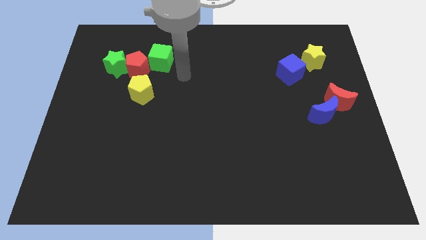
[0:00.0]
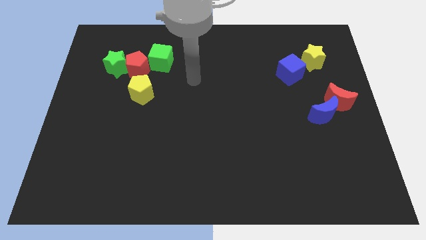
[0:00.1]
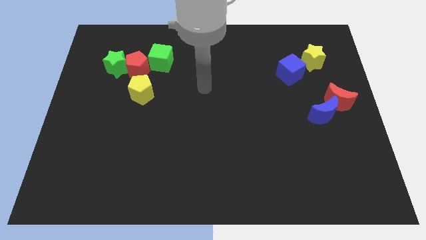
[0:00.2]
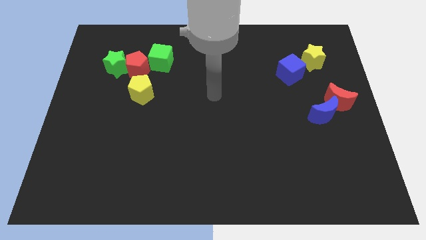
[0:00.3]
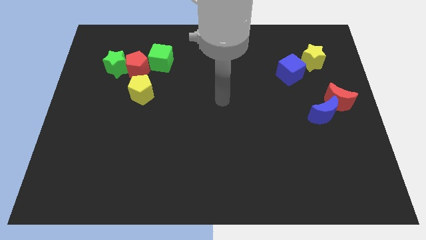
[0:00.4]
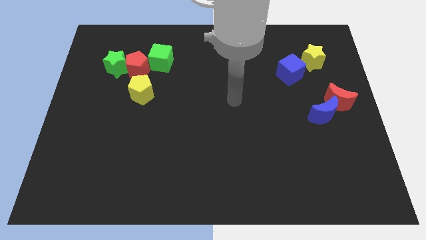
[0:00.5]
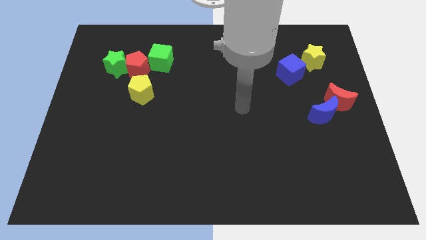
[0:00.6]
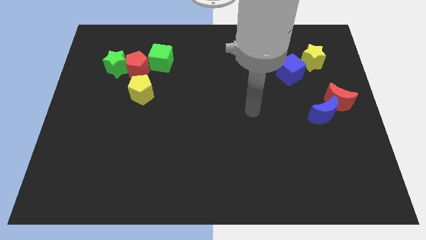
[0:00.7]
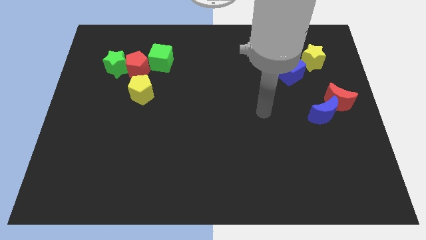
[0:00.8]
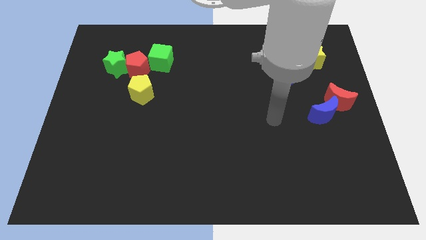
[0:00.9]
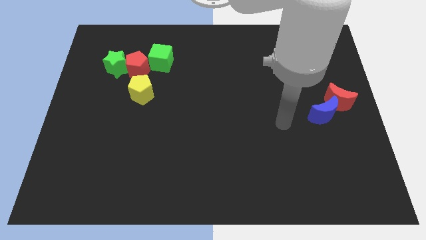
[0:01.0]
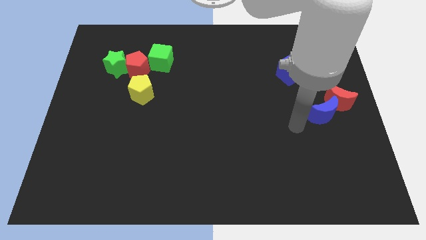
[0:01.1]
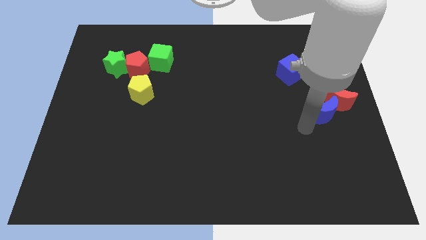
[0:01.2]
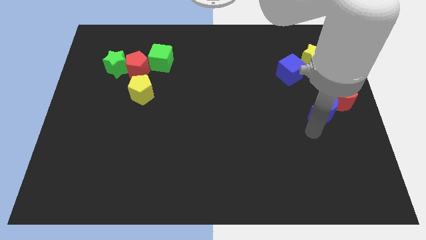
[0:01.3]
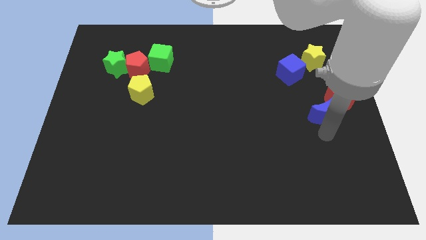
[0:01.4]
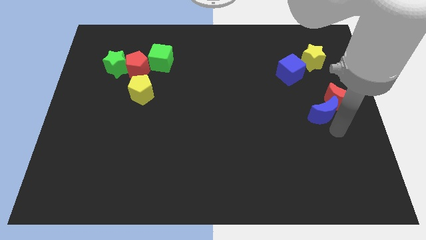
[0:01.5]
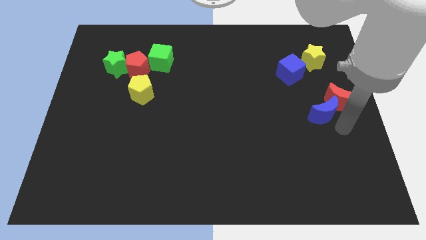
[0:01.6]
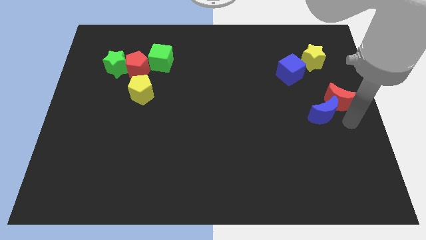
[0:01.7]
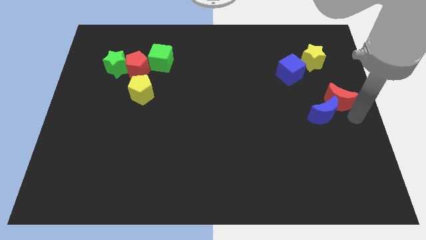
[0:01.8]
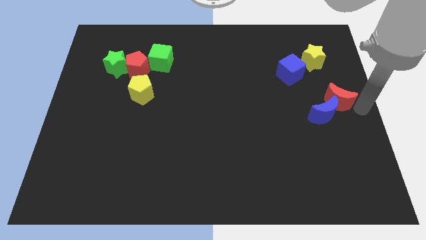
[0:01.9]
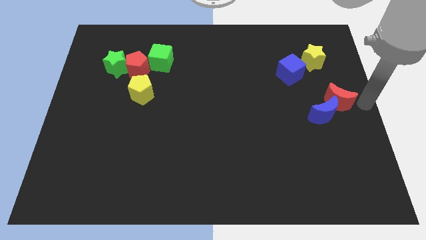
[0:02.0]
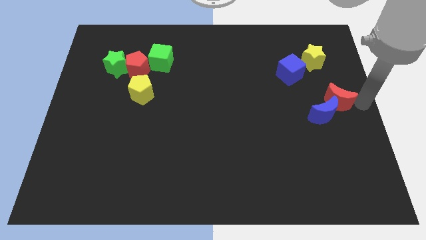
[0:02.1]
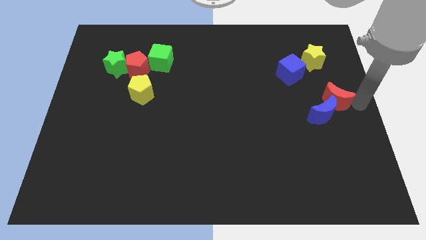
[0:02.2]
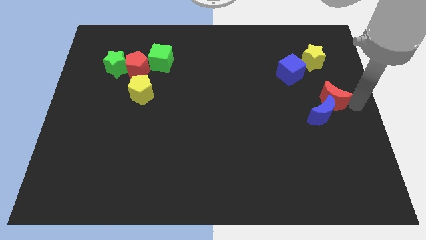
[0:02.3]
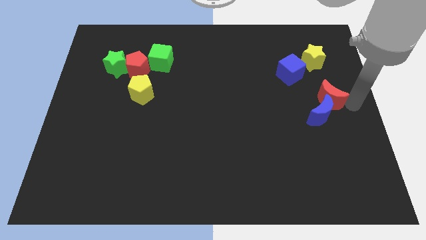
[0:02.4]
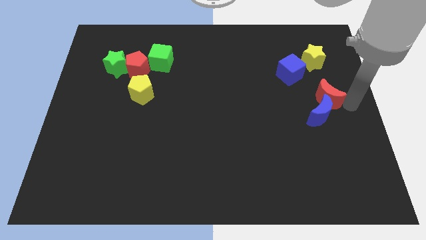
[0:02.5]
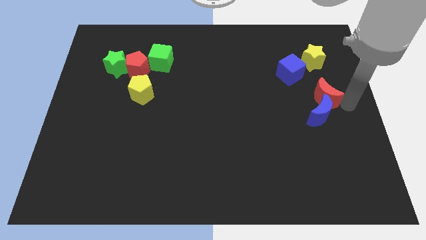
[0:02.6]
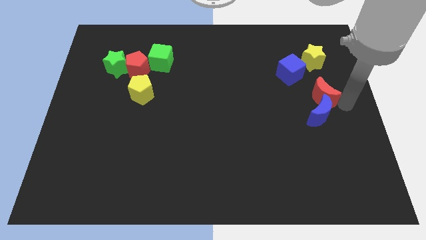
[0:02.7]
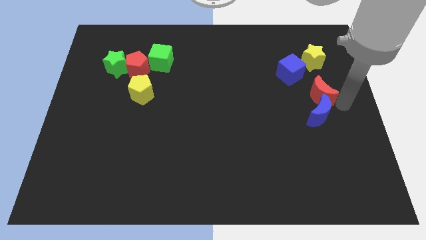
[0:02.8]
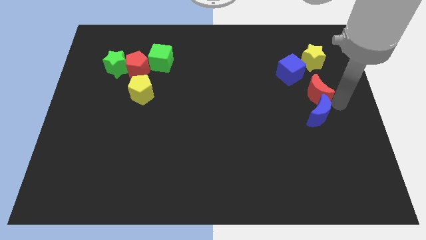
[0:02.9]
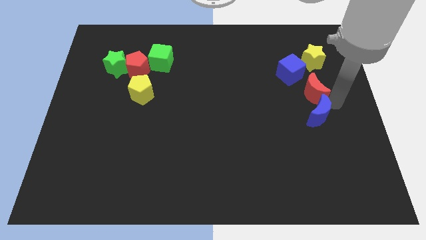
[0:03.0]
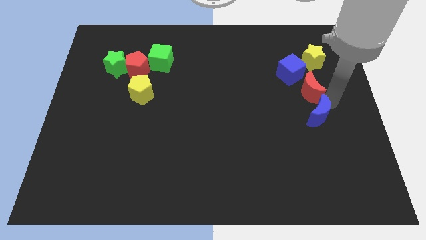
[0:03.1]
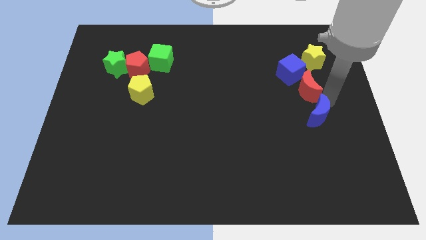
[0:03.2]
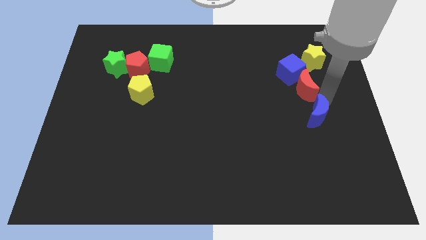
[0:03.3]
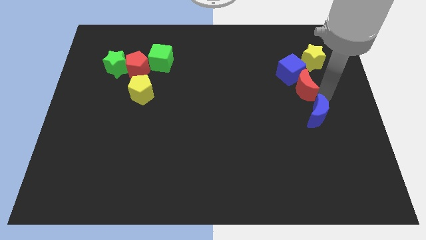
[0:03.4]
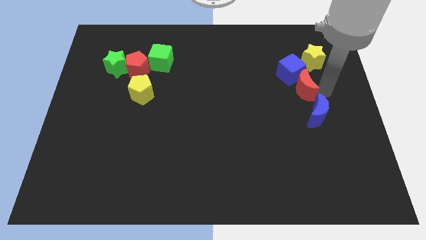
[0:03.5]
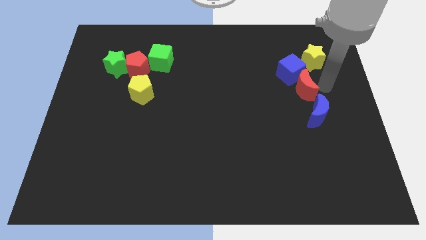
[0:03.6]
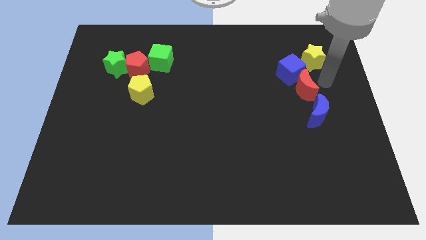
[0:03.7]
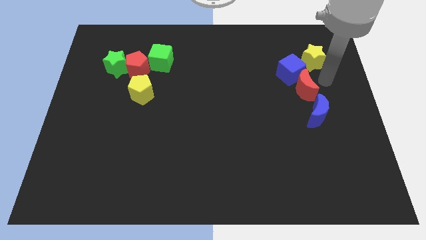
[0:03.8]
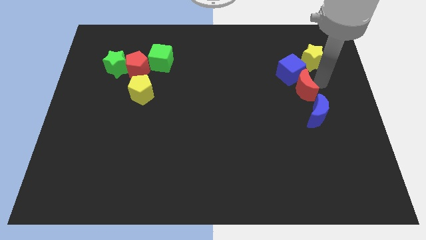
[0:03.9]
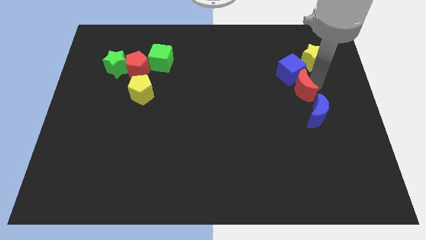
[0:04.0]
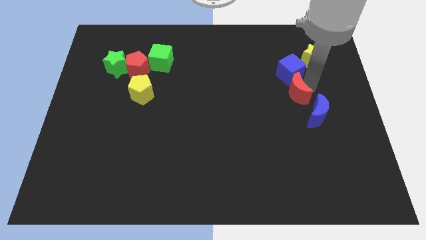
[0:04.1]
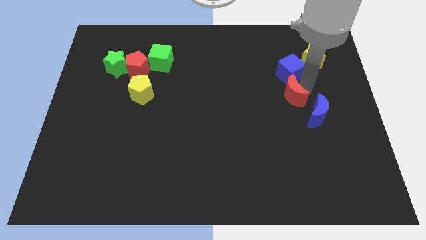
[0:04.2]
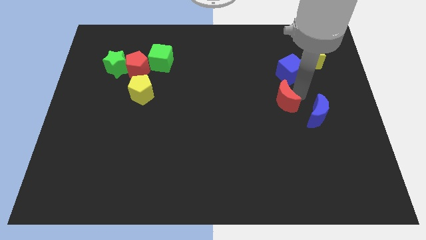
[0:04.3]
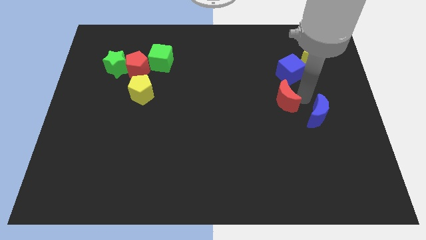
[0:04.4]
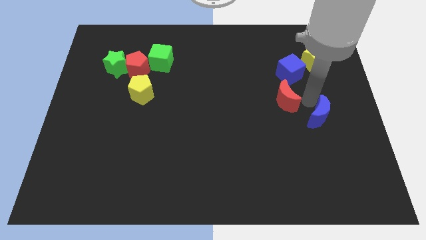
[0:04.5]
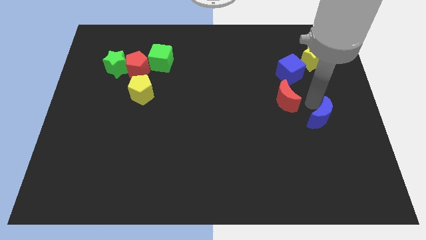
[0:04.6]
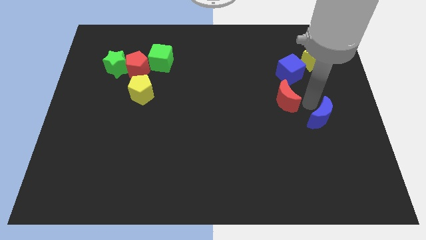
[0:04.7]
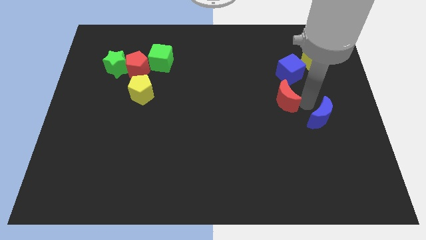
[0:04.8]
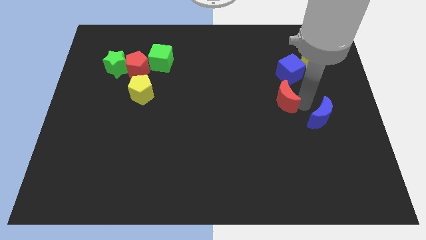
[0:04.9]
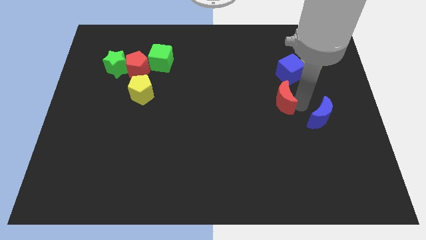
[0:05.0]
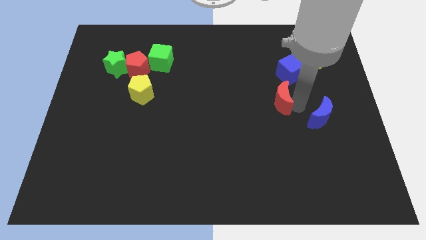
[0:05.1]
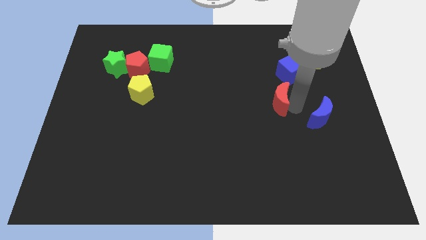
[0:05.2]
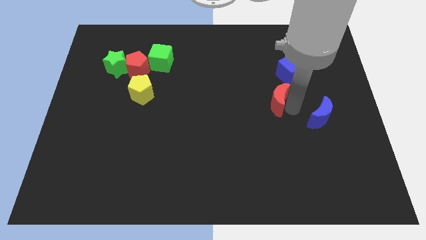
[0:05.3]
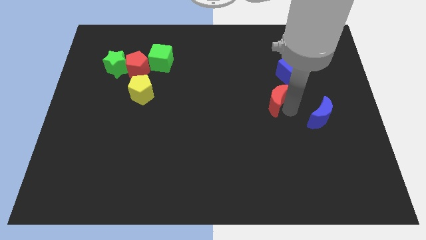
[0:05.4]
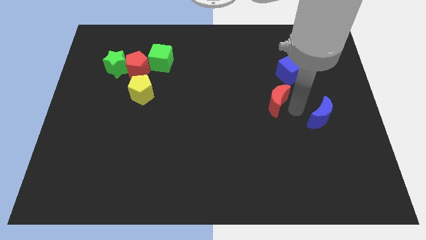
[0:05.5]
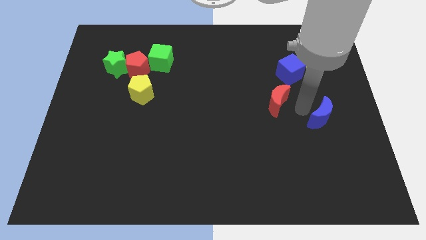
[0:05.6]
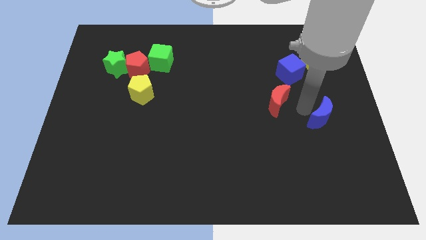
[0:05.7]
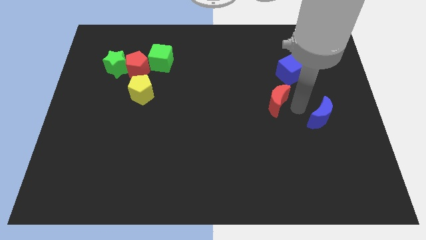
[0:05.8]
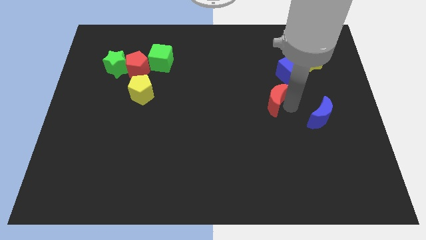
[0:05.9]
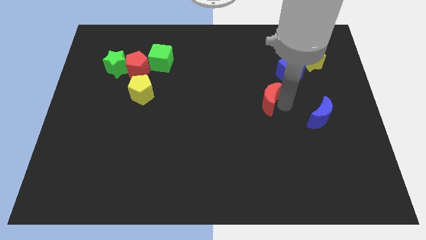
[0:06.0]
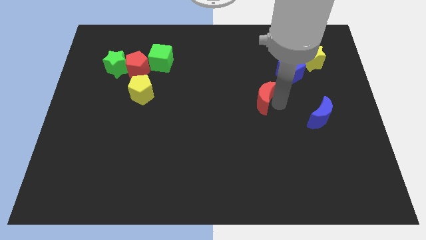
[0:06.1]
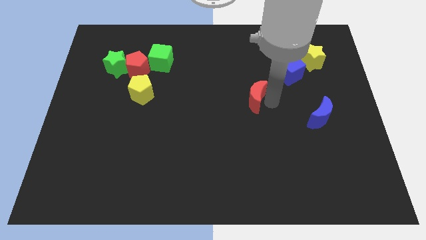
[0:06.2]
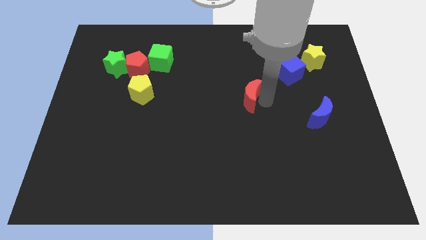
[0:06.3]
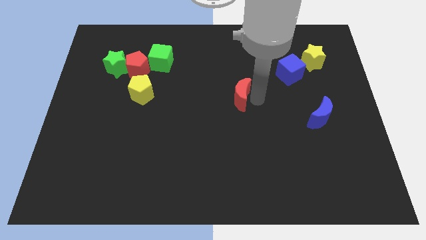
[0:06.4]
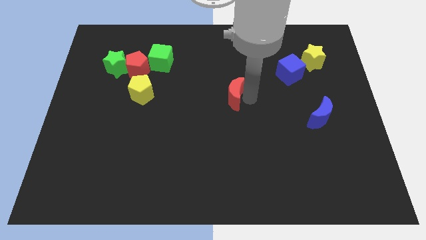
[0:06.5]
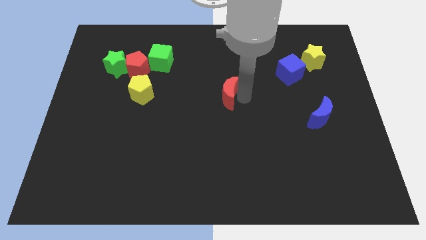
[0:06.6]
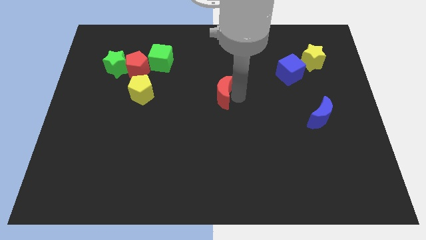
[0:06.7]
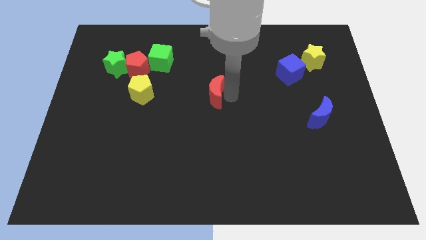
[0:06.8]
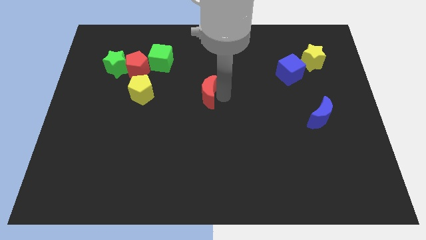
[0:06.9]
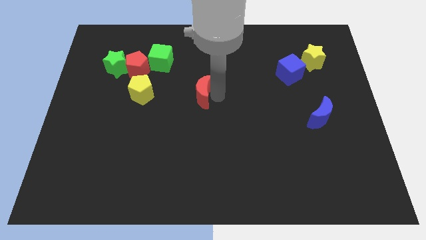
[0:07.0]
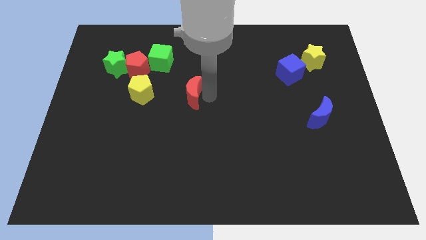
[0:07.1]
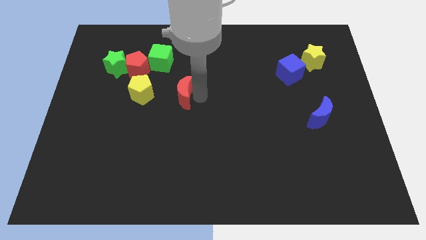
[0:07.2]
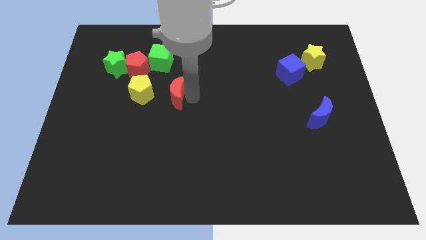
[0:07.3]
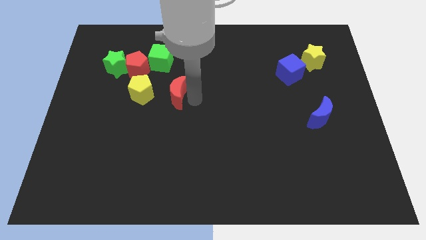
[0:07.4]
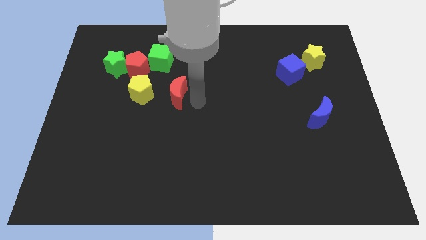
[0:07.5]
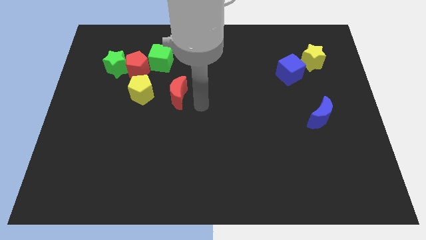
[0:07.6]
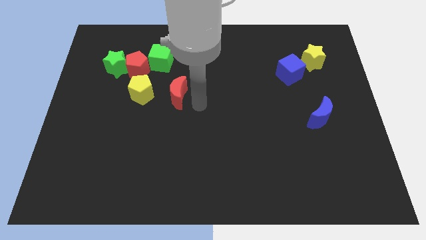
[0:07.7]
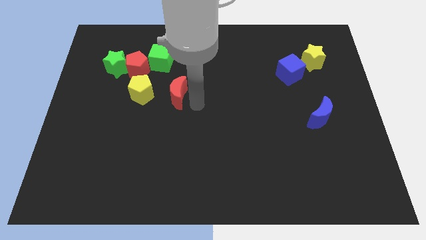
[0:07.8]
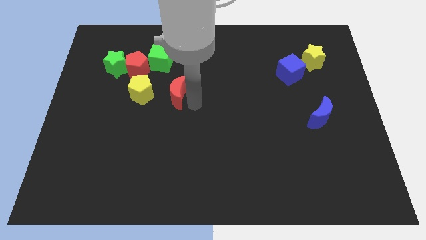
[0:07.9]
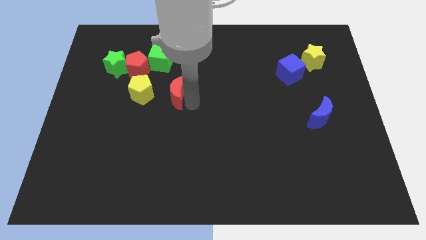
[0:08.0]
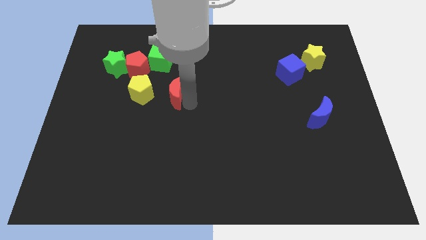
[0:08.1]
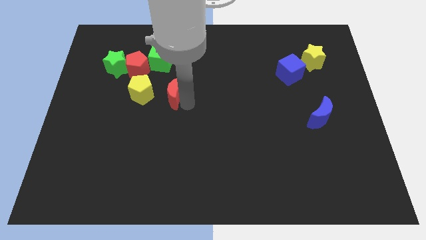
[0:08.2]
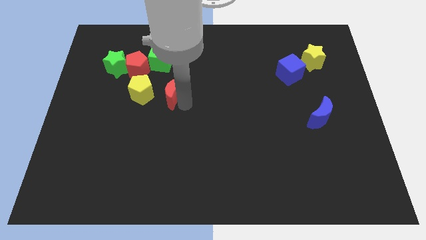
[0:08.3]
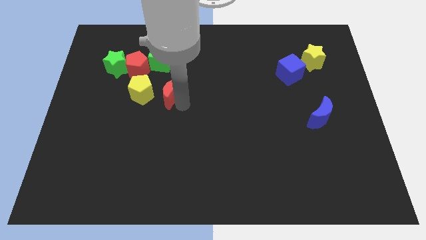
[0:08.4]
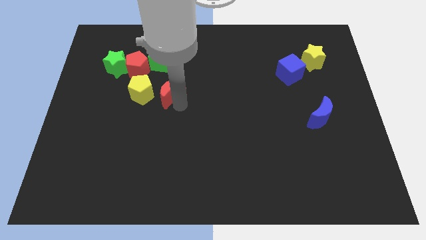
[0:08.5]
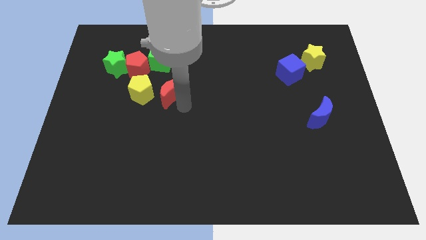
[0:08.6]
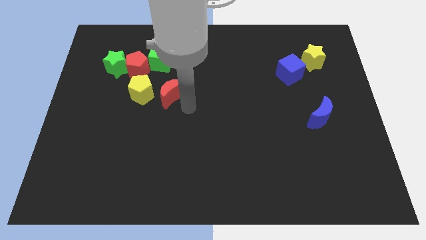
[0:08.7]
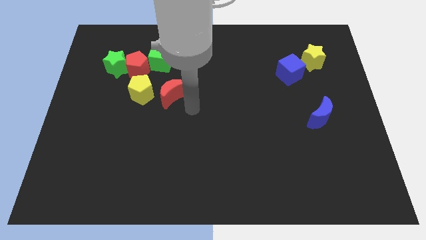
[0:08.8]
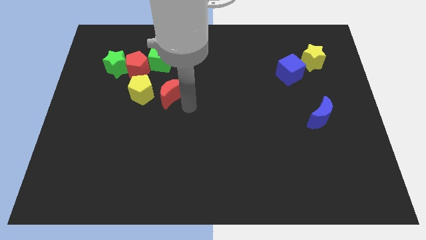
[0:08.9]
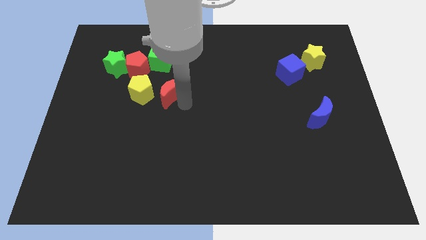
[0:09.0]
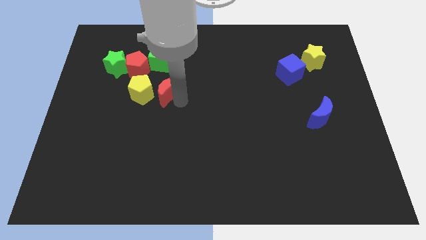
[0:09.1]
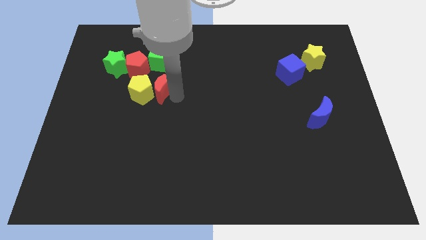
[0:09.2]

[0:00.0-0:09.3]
push the red moon next to the yellow pentagon
